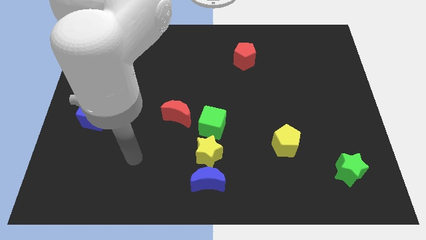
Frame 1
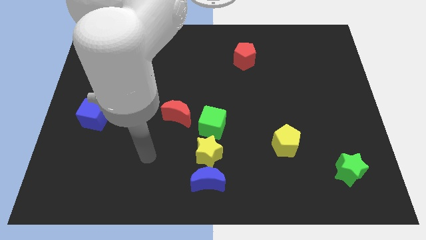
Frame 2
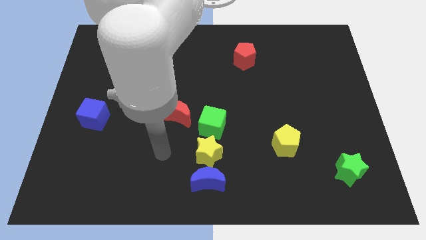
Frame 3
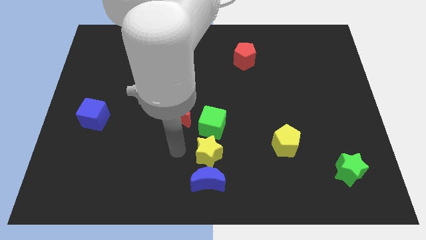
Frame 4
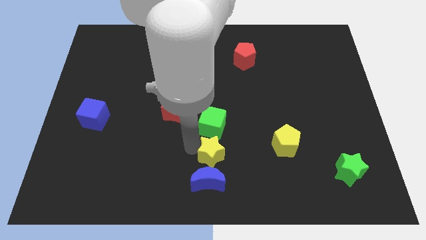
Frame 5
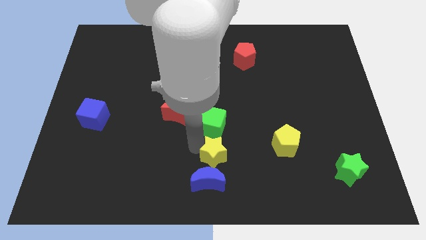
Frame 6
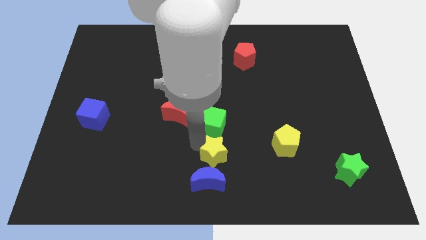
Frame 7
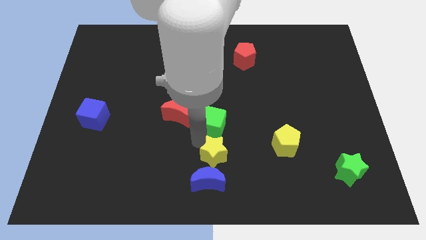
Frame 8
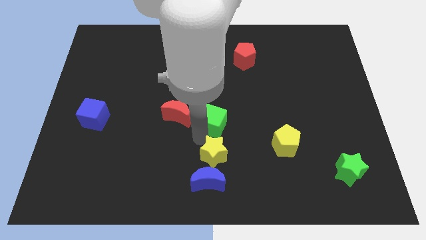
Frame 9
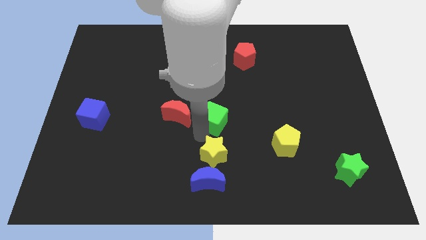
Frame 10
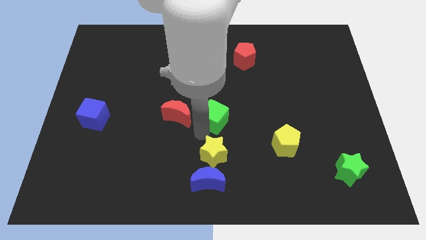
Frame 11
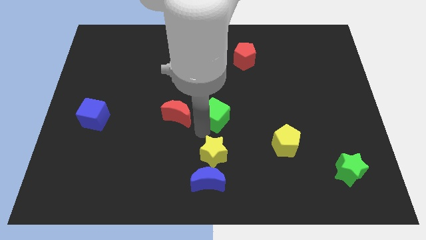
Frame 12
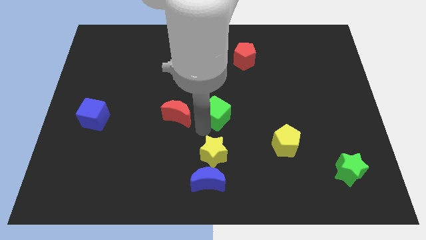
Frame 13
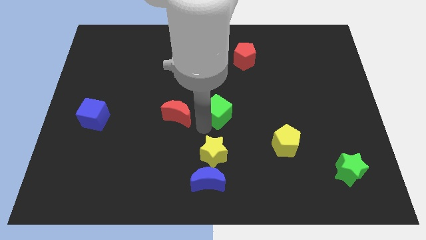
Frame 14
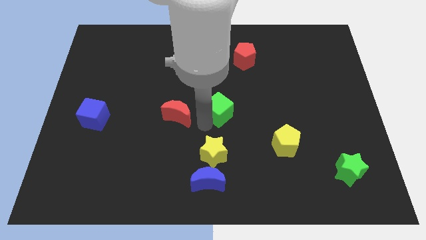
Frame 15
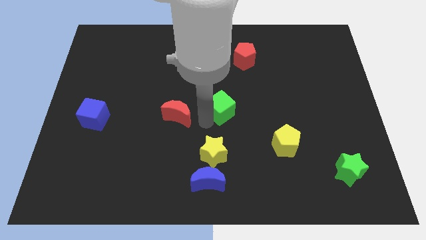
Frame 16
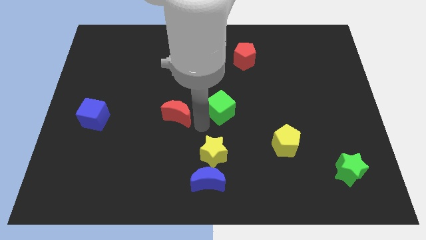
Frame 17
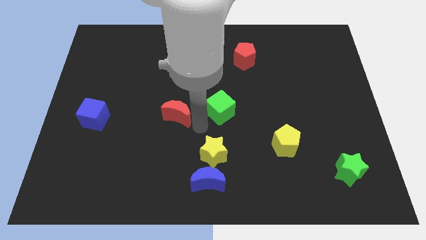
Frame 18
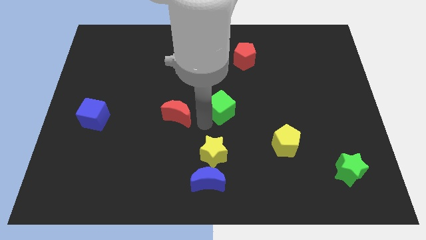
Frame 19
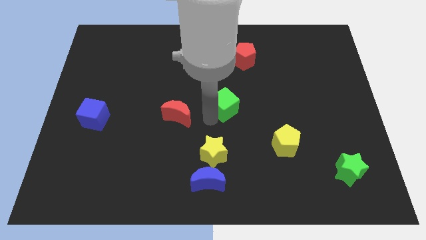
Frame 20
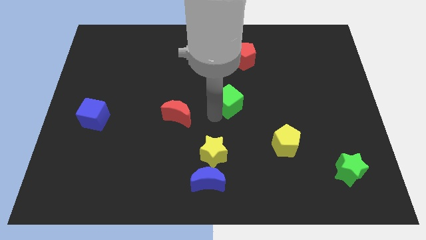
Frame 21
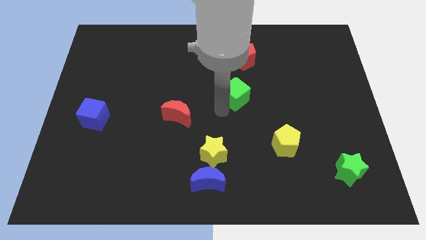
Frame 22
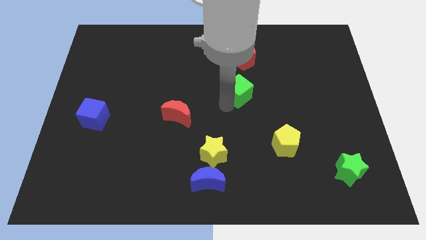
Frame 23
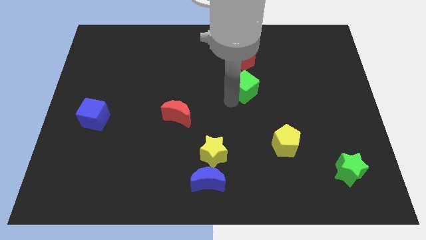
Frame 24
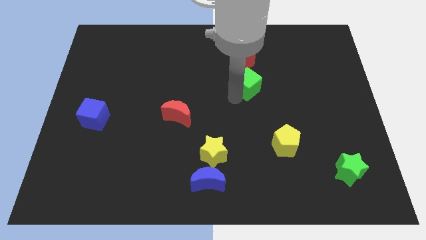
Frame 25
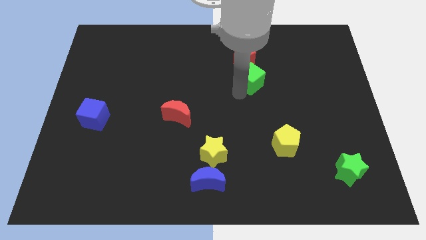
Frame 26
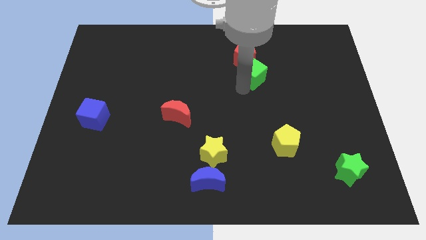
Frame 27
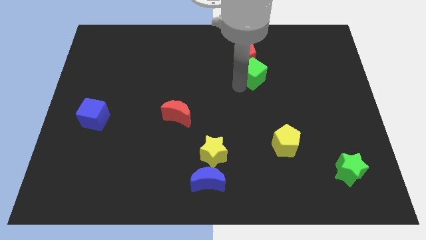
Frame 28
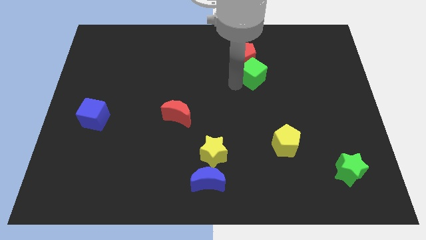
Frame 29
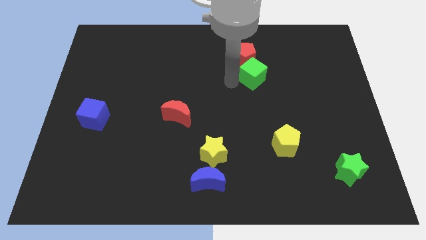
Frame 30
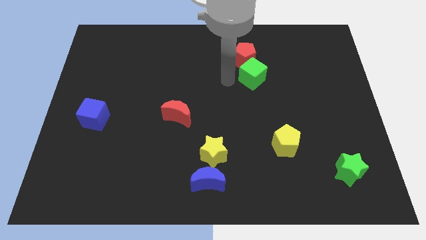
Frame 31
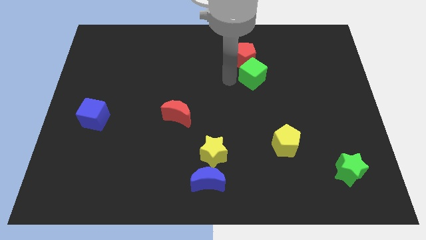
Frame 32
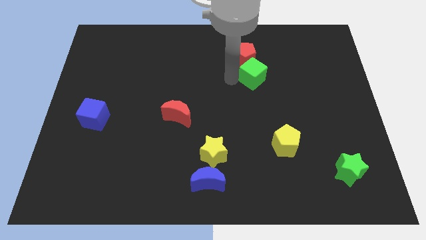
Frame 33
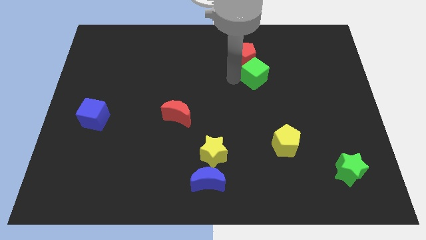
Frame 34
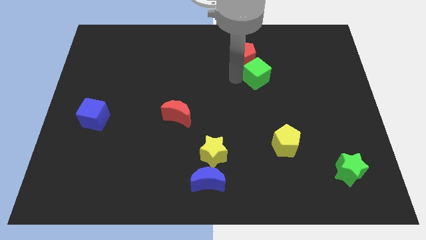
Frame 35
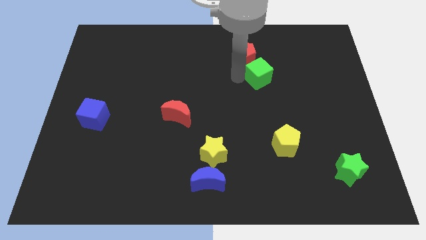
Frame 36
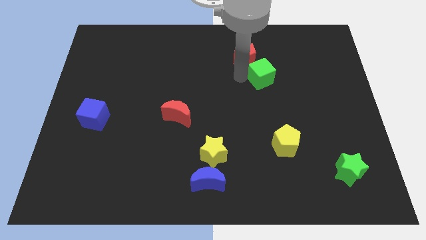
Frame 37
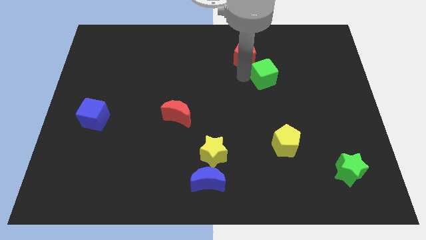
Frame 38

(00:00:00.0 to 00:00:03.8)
move the green cube up and right diagonally

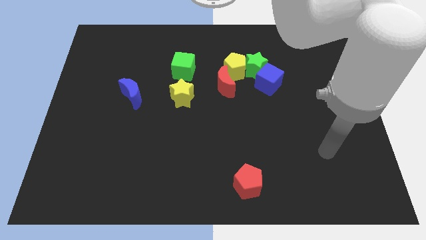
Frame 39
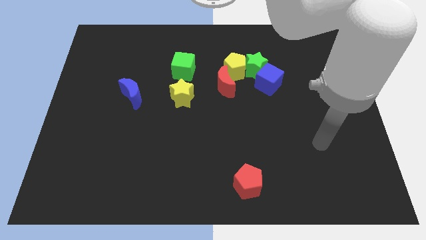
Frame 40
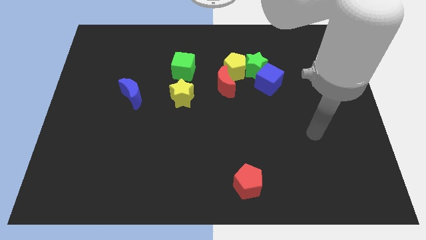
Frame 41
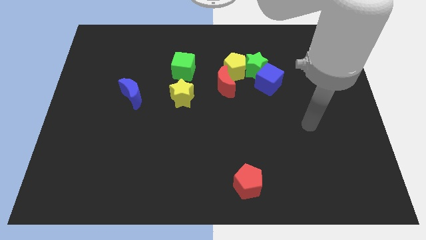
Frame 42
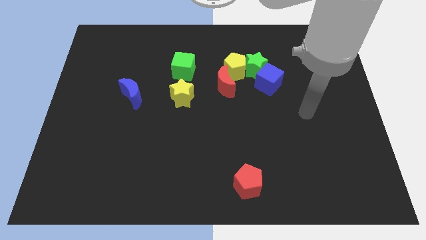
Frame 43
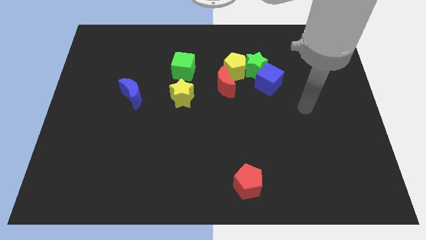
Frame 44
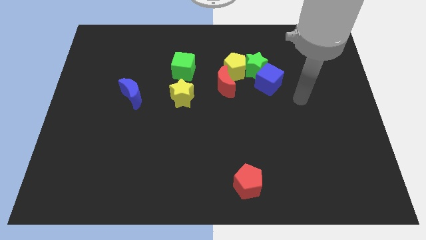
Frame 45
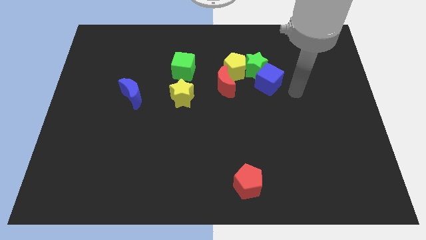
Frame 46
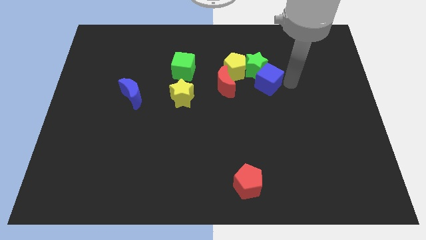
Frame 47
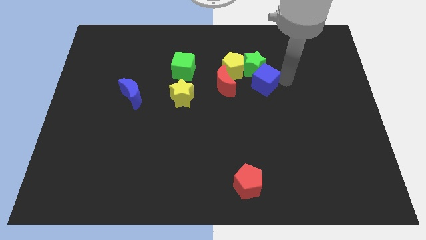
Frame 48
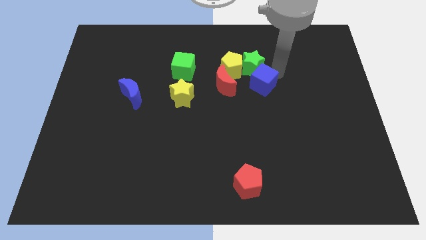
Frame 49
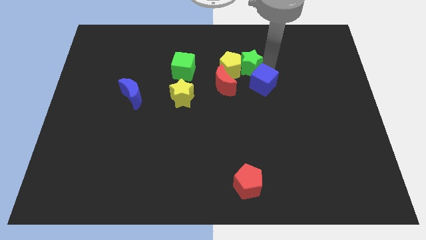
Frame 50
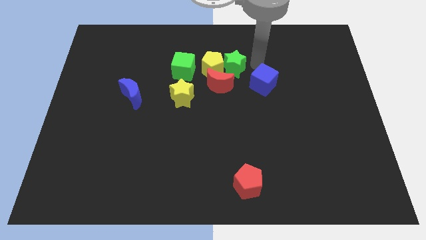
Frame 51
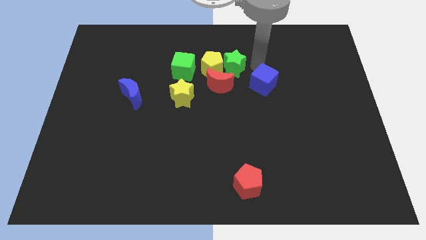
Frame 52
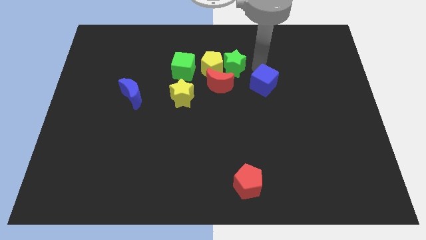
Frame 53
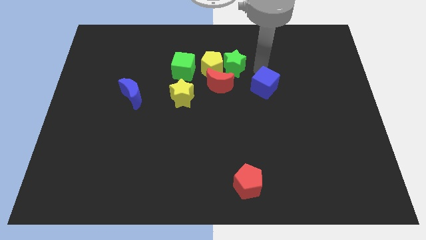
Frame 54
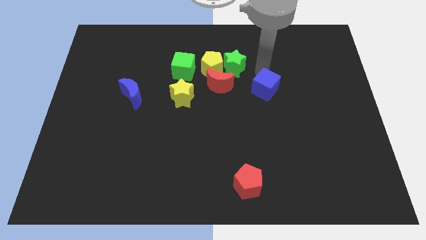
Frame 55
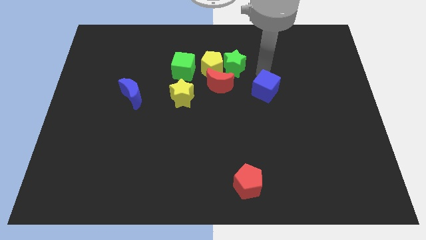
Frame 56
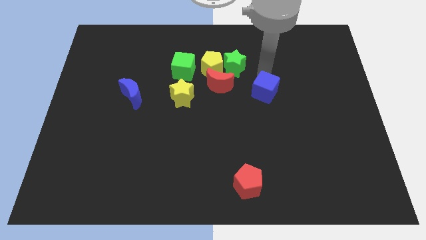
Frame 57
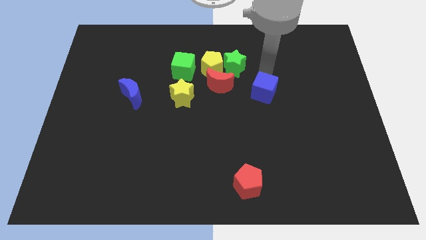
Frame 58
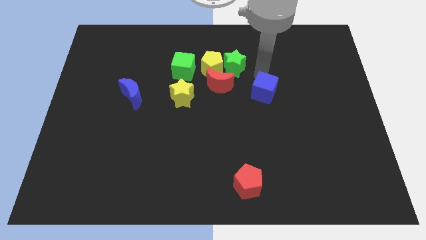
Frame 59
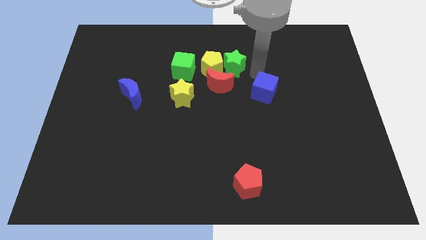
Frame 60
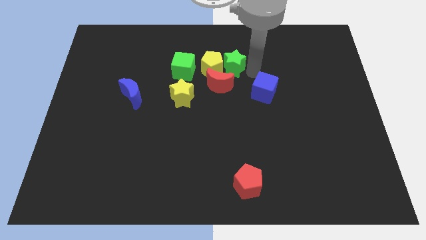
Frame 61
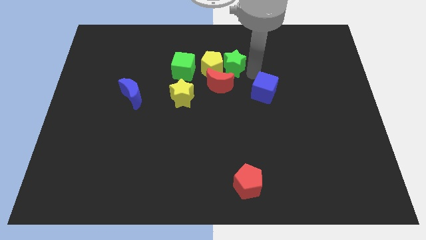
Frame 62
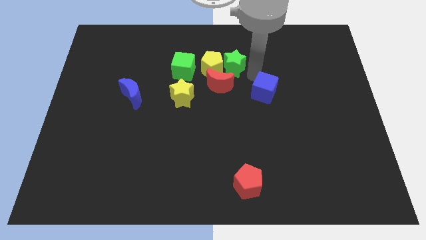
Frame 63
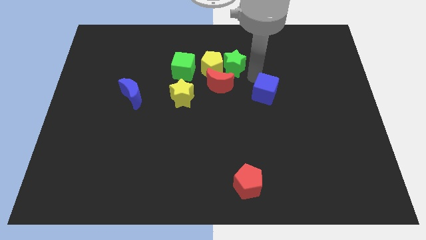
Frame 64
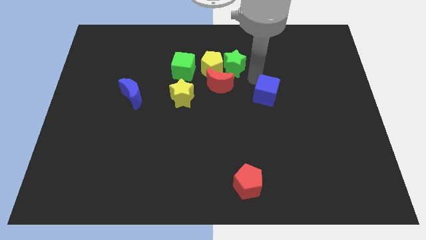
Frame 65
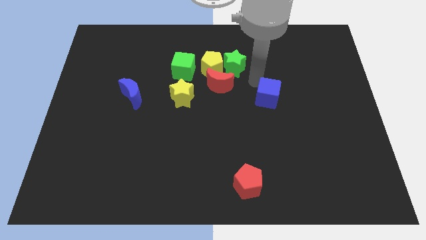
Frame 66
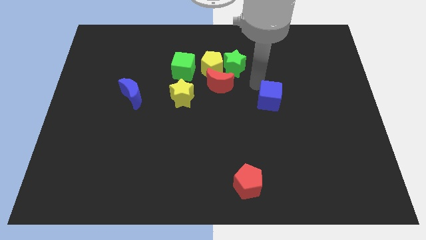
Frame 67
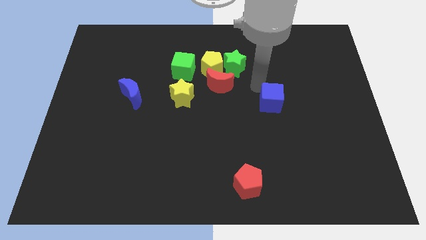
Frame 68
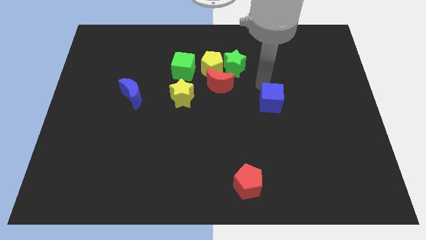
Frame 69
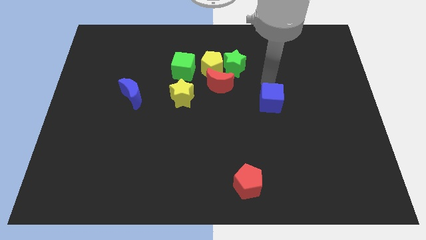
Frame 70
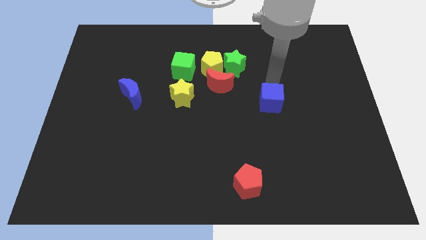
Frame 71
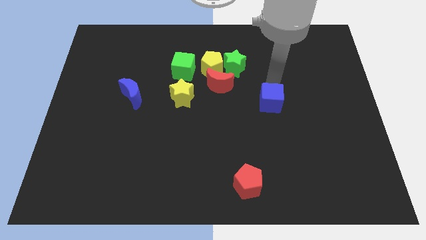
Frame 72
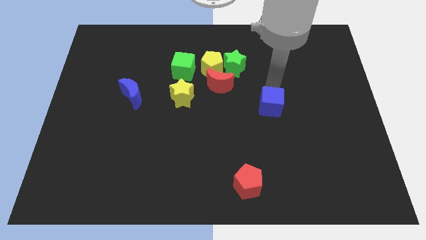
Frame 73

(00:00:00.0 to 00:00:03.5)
slightly move the blue cube downwards

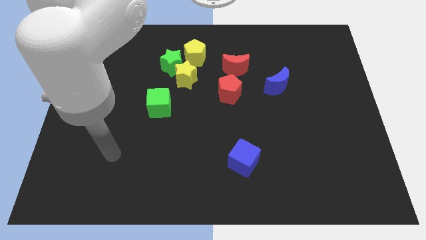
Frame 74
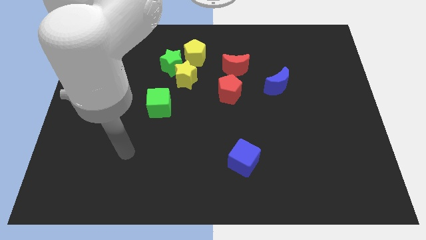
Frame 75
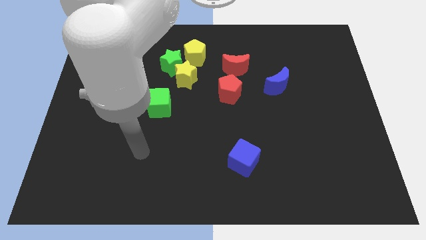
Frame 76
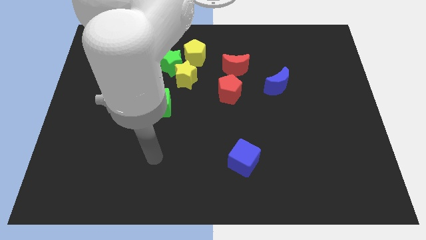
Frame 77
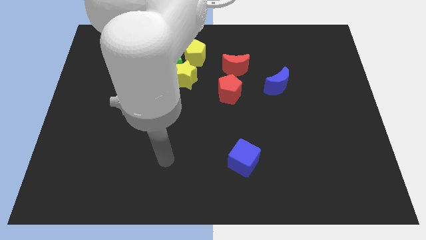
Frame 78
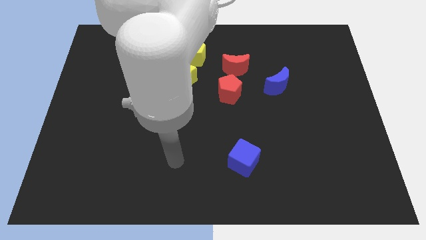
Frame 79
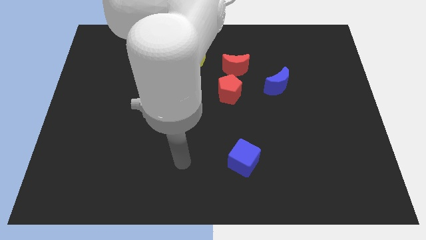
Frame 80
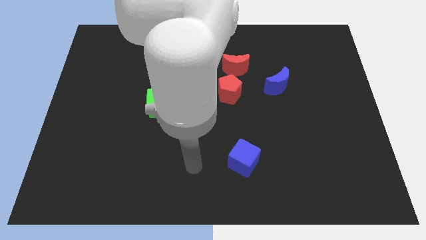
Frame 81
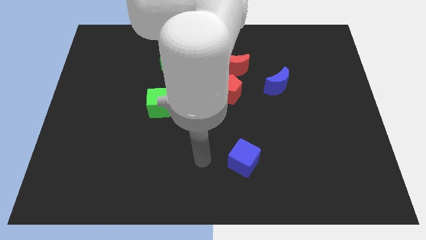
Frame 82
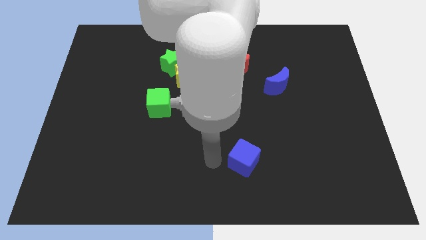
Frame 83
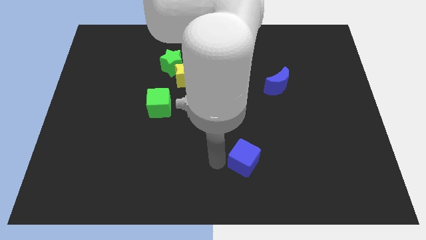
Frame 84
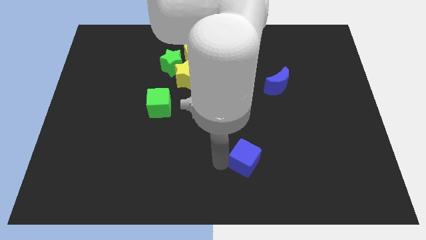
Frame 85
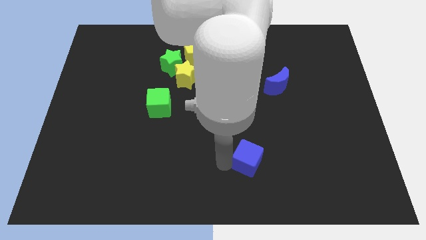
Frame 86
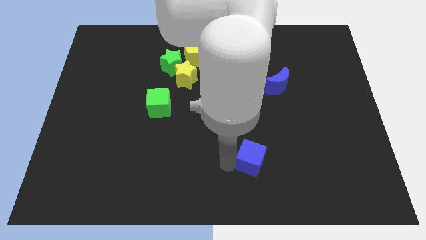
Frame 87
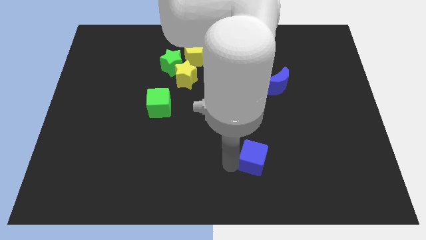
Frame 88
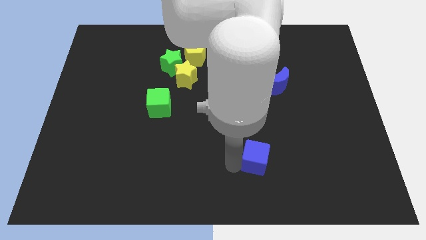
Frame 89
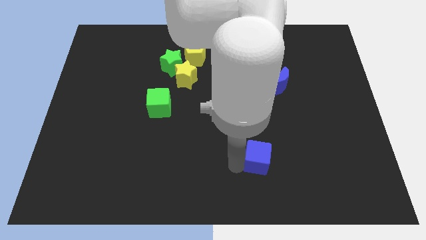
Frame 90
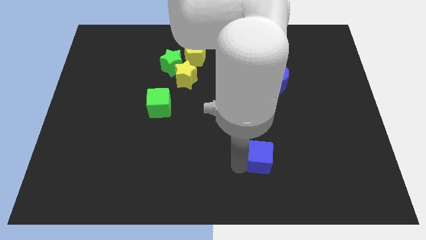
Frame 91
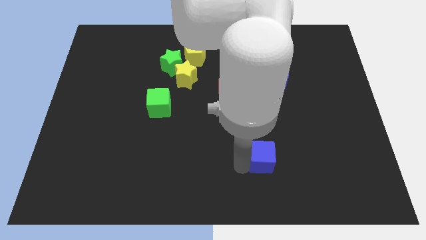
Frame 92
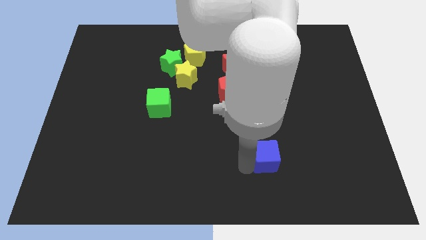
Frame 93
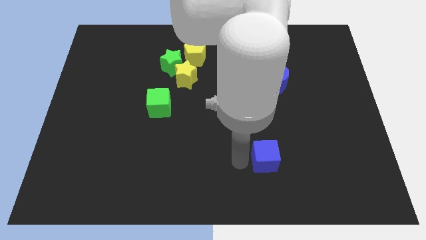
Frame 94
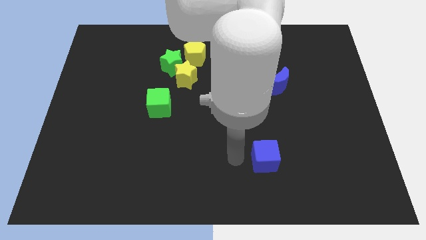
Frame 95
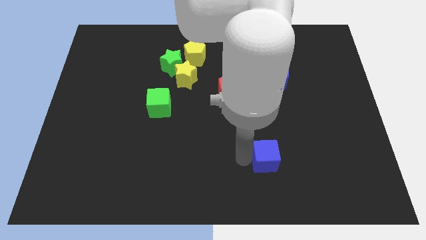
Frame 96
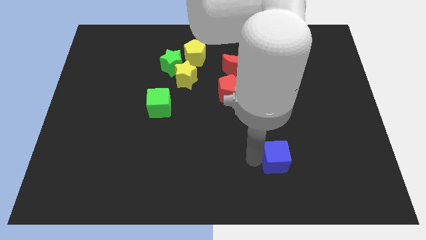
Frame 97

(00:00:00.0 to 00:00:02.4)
move the blue cube a little bit right
